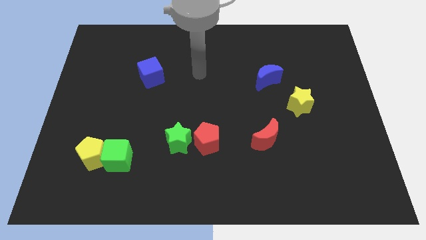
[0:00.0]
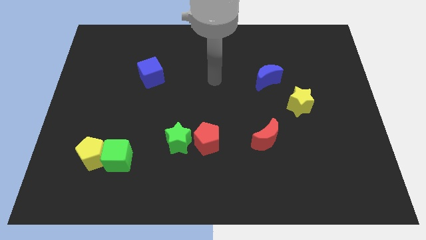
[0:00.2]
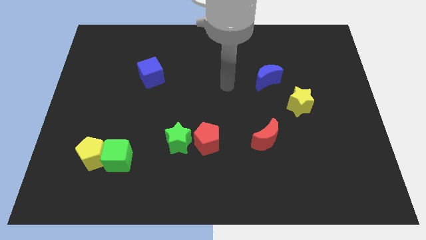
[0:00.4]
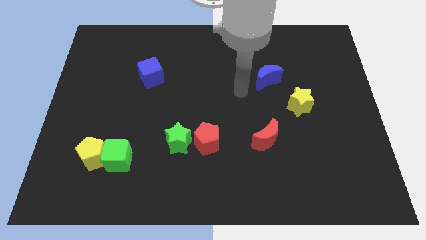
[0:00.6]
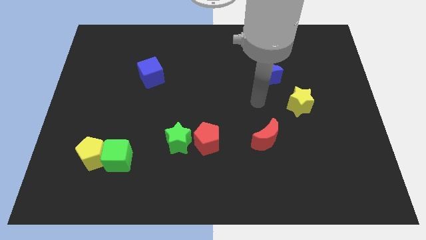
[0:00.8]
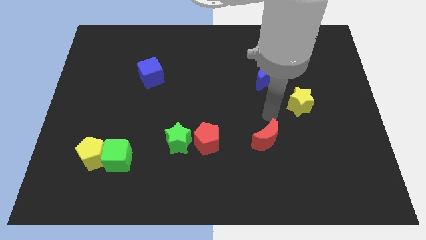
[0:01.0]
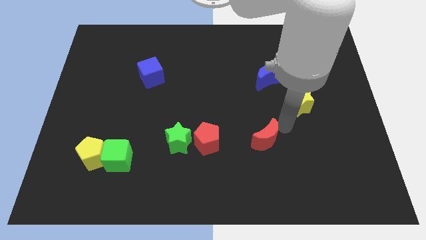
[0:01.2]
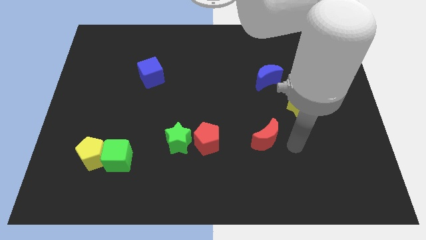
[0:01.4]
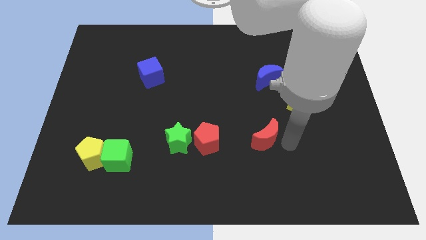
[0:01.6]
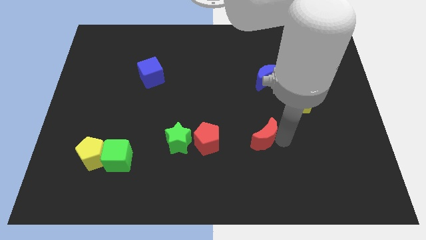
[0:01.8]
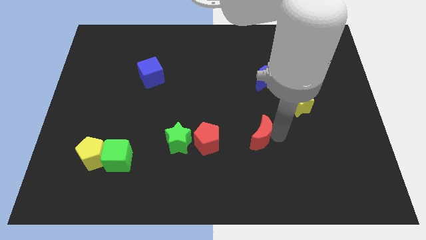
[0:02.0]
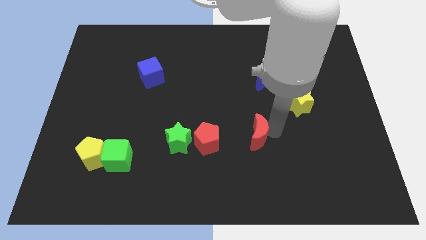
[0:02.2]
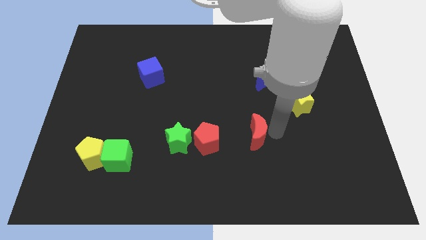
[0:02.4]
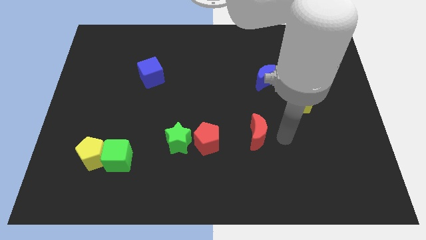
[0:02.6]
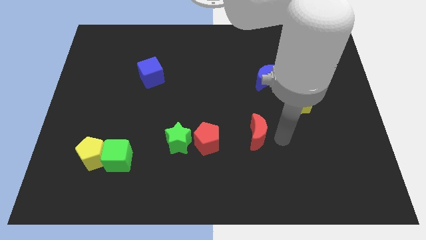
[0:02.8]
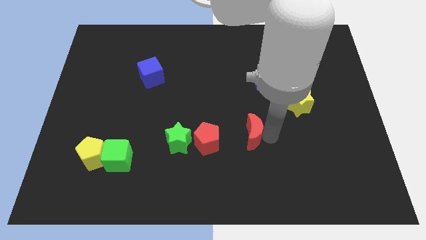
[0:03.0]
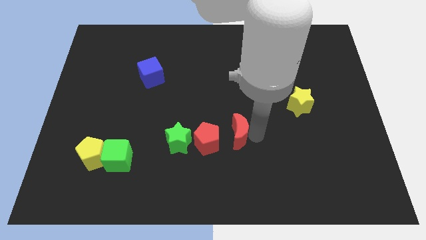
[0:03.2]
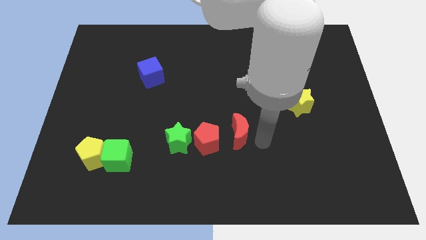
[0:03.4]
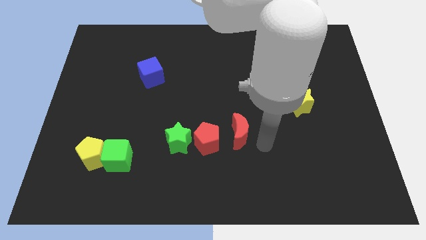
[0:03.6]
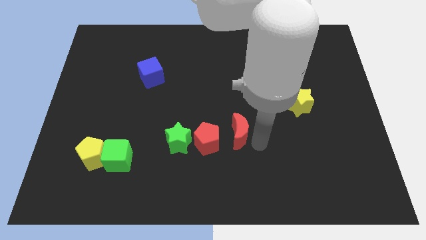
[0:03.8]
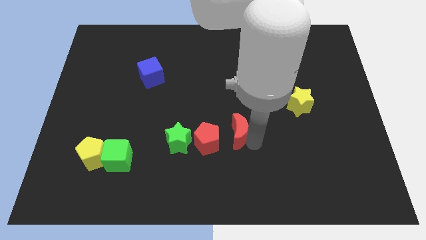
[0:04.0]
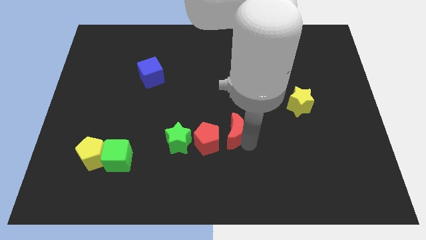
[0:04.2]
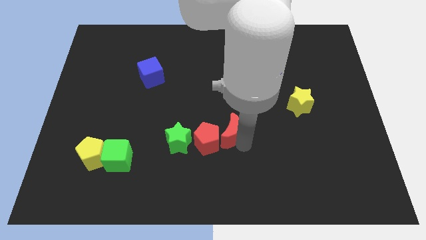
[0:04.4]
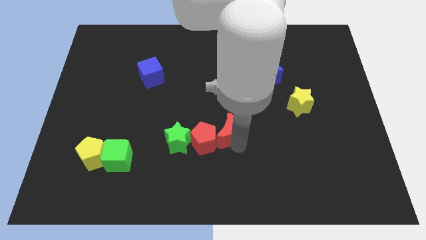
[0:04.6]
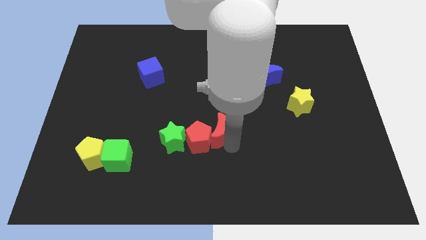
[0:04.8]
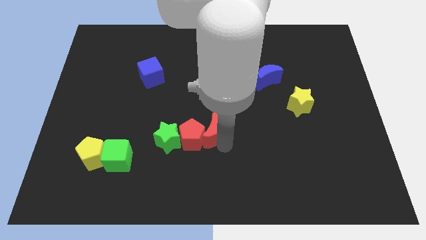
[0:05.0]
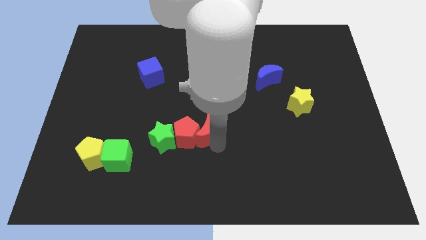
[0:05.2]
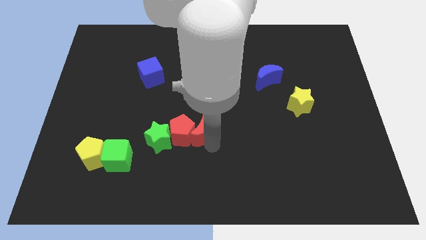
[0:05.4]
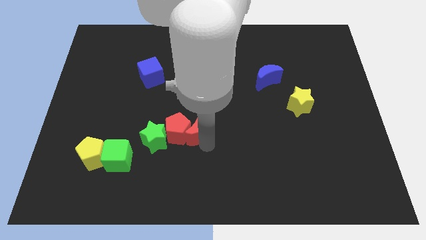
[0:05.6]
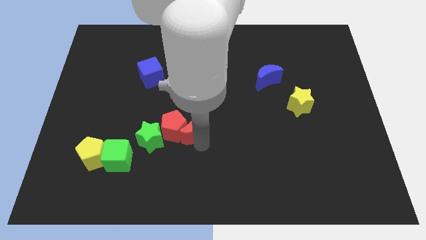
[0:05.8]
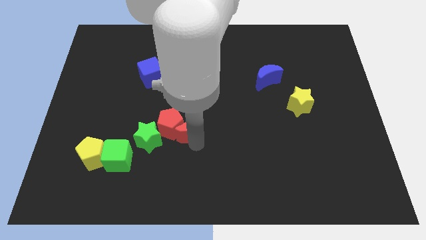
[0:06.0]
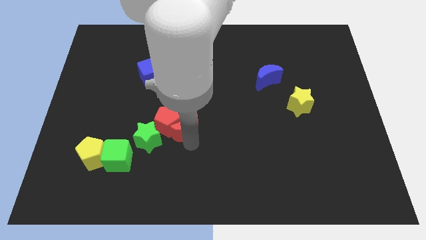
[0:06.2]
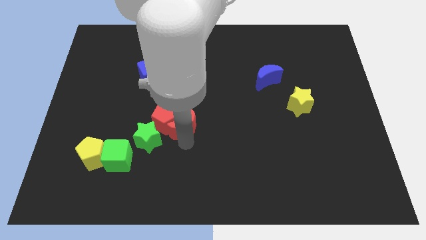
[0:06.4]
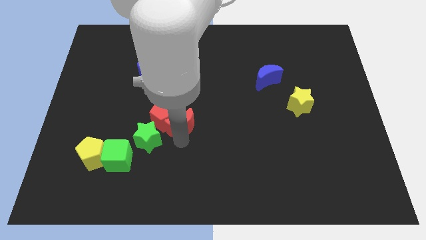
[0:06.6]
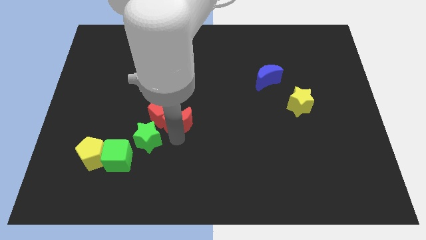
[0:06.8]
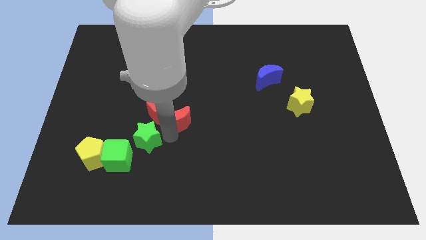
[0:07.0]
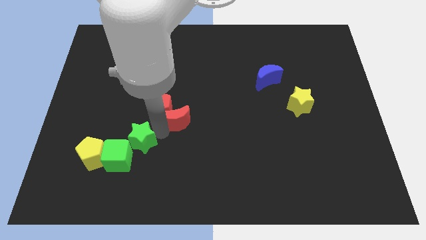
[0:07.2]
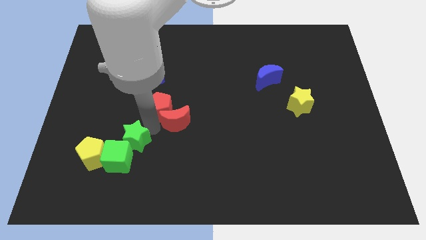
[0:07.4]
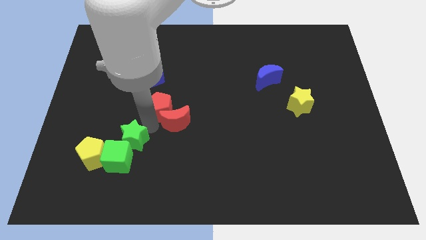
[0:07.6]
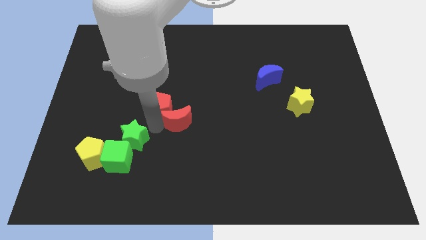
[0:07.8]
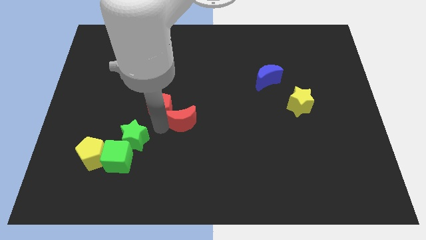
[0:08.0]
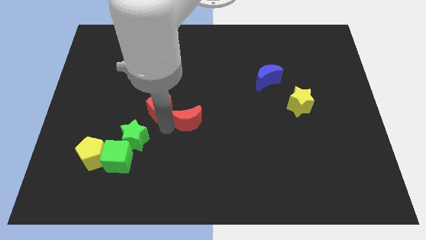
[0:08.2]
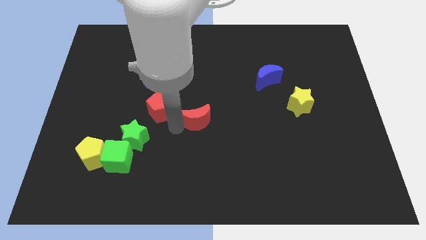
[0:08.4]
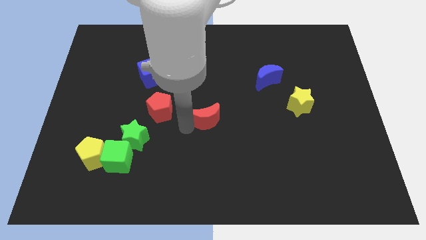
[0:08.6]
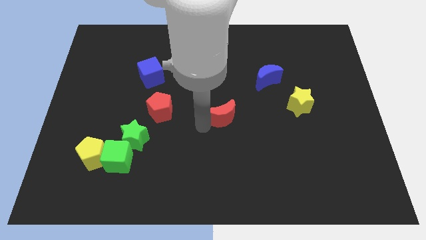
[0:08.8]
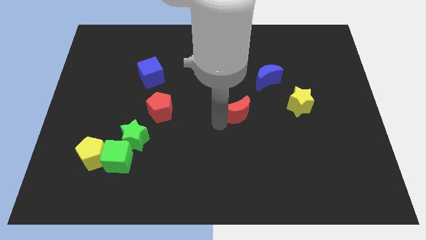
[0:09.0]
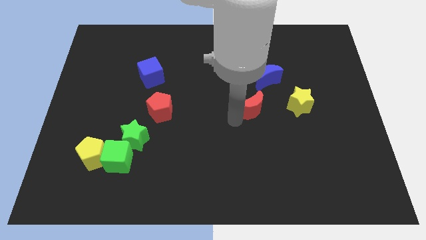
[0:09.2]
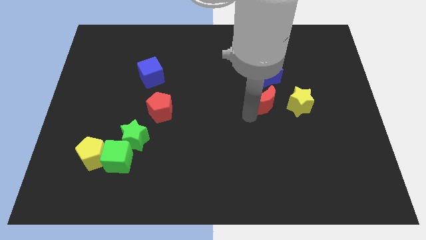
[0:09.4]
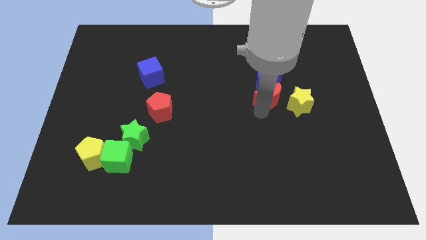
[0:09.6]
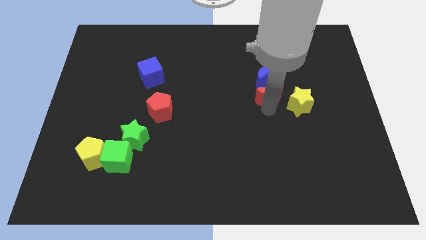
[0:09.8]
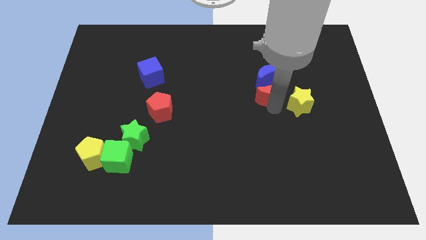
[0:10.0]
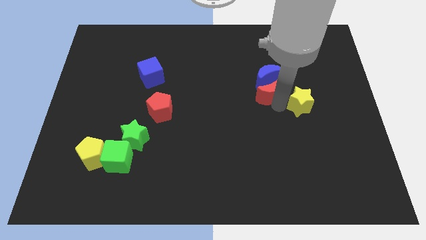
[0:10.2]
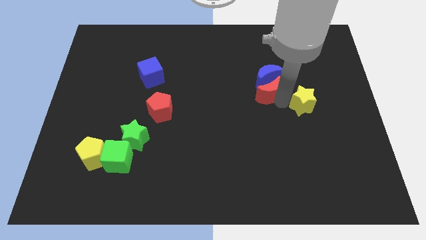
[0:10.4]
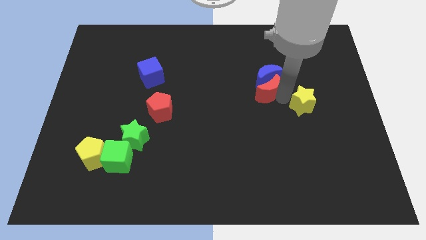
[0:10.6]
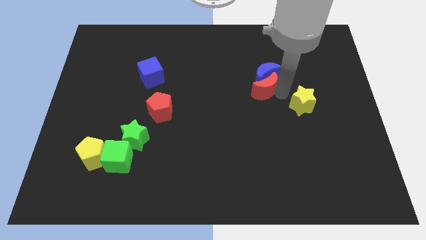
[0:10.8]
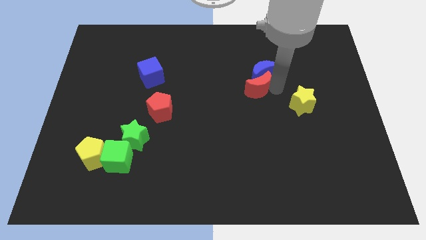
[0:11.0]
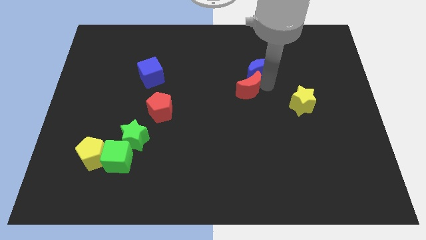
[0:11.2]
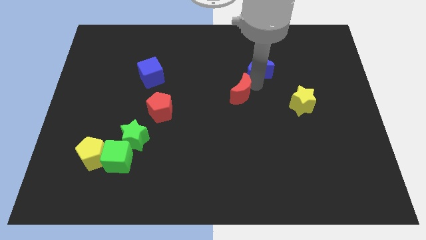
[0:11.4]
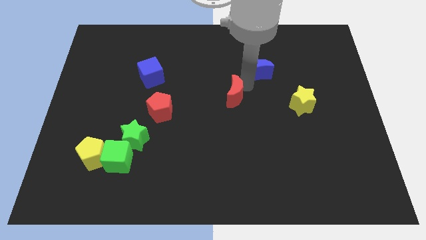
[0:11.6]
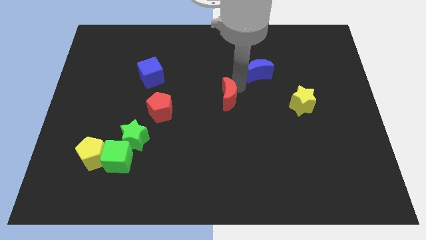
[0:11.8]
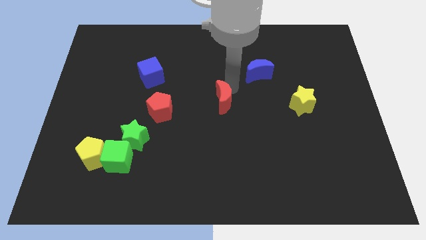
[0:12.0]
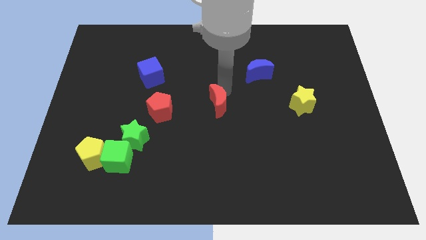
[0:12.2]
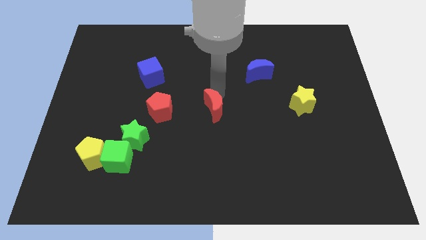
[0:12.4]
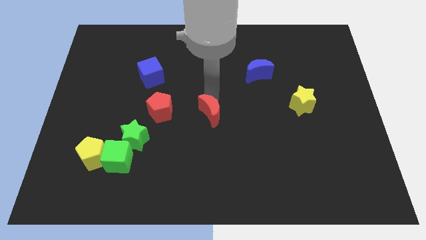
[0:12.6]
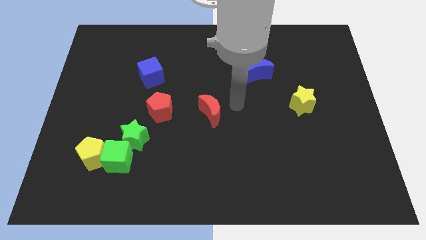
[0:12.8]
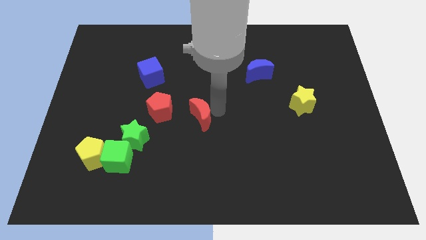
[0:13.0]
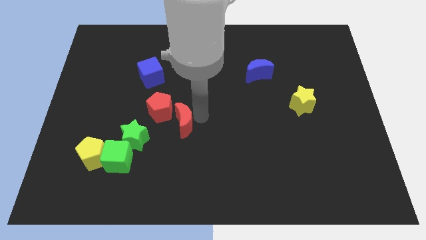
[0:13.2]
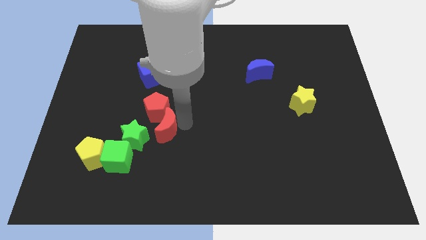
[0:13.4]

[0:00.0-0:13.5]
move the red moon to the left

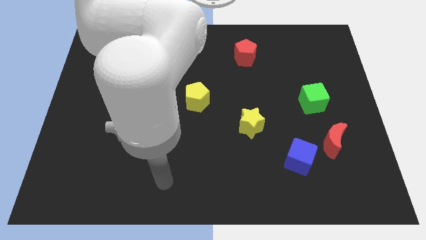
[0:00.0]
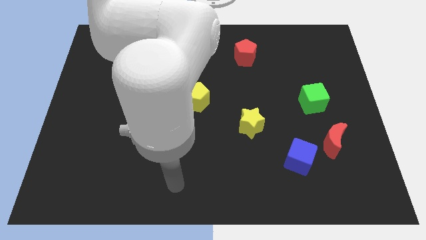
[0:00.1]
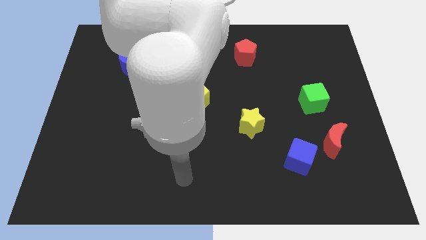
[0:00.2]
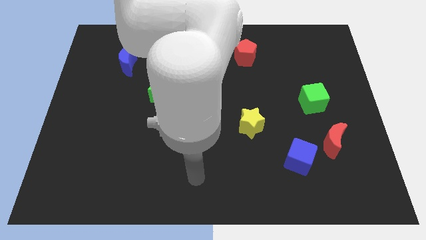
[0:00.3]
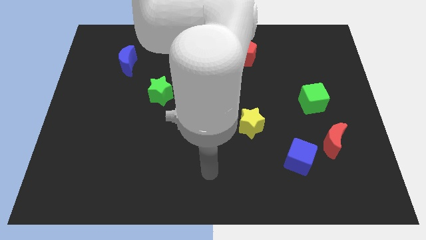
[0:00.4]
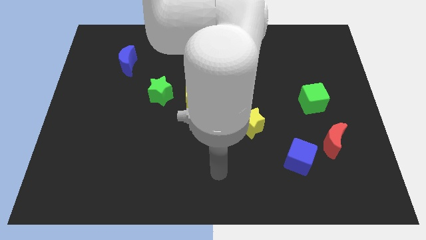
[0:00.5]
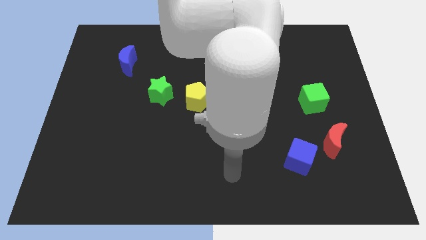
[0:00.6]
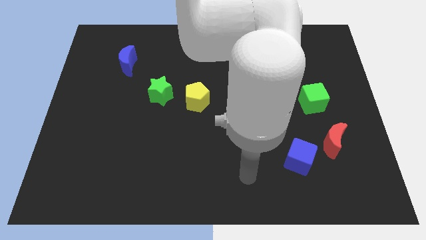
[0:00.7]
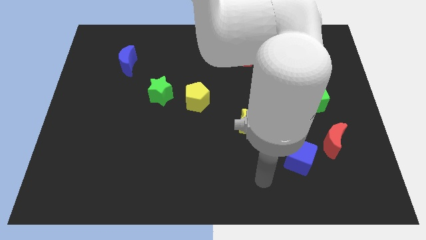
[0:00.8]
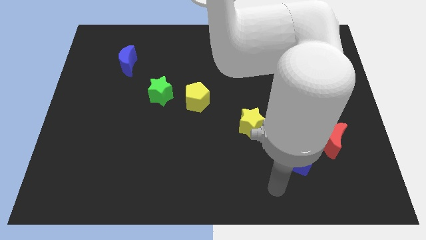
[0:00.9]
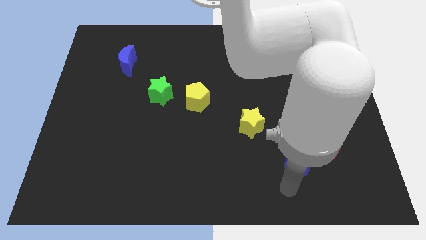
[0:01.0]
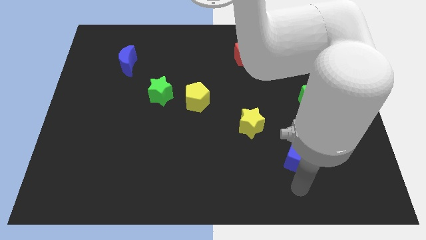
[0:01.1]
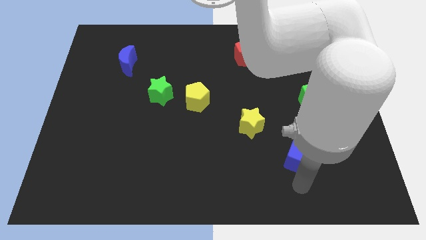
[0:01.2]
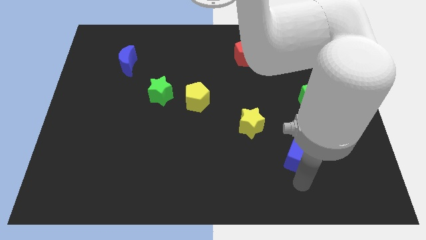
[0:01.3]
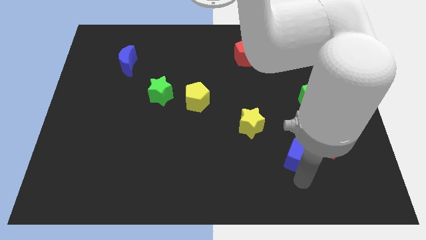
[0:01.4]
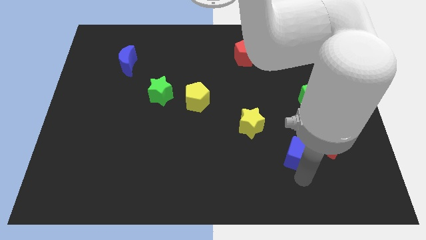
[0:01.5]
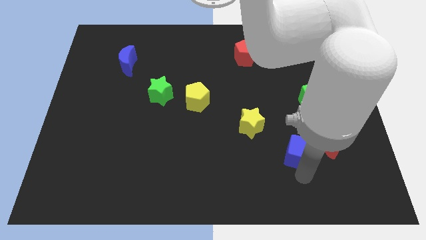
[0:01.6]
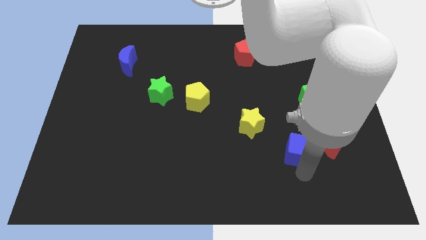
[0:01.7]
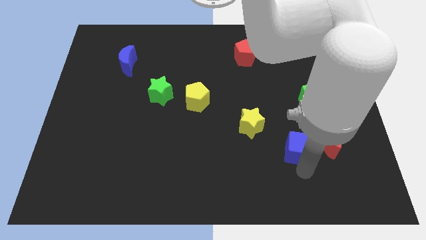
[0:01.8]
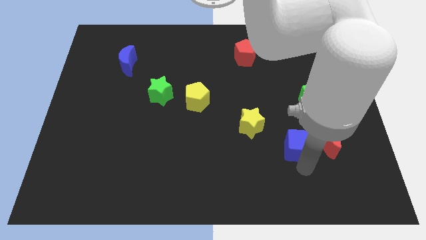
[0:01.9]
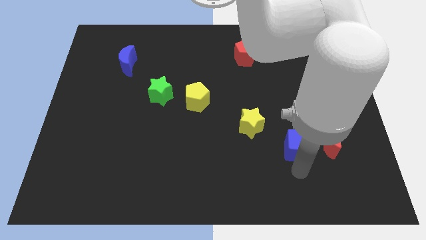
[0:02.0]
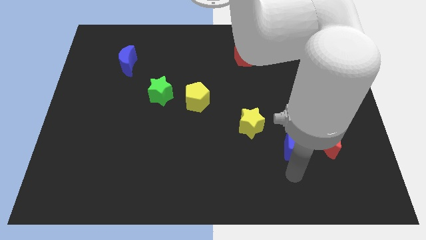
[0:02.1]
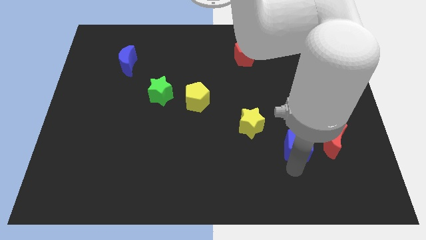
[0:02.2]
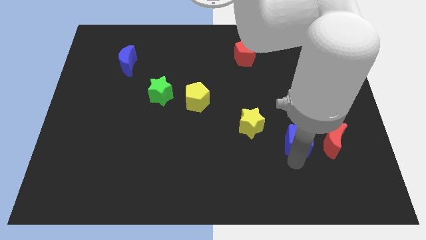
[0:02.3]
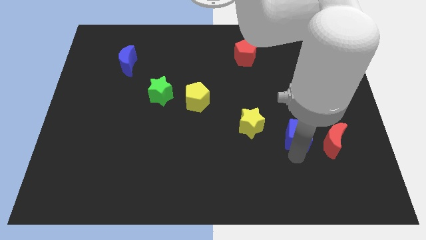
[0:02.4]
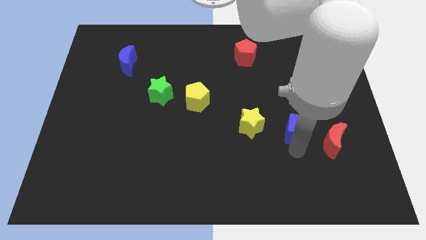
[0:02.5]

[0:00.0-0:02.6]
slide the blue cube upwards a little bit
